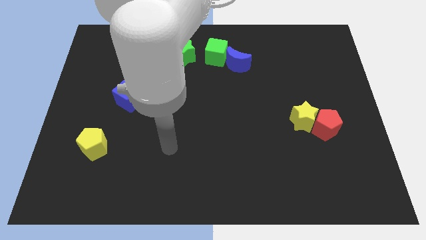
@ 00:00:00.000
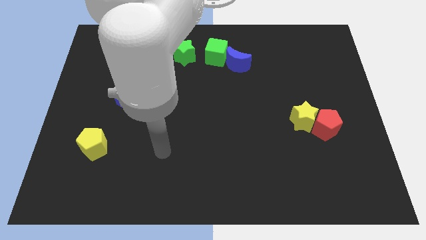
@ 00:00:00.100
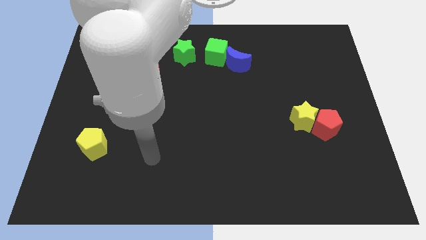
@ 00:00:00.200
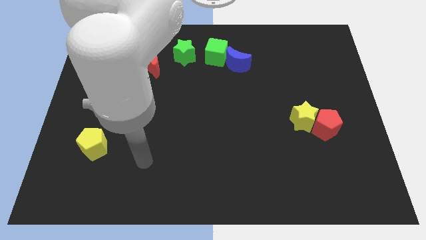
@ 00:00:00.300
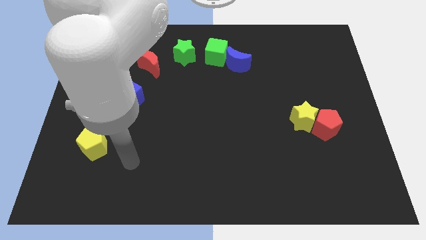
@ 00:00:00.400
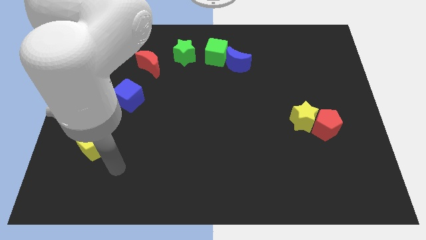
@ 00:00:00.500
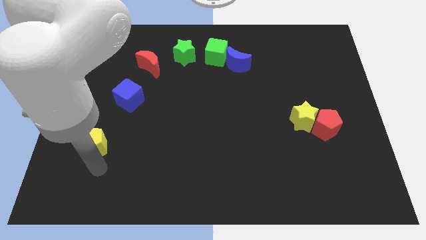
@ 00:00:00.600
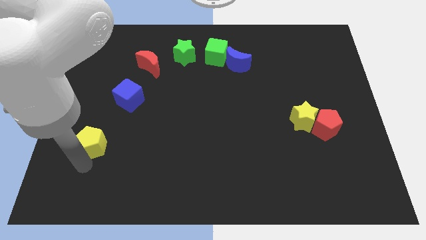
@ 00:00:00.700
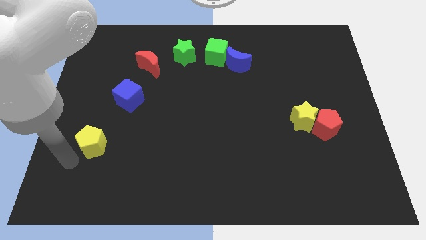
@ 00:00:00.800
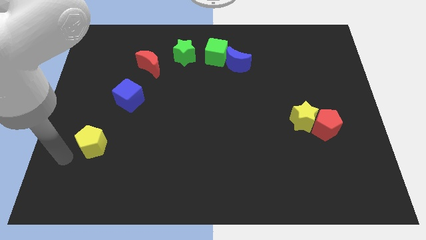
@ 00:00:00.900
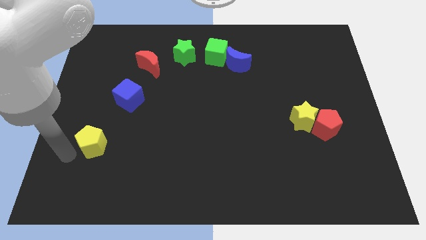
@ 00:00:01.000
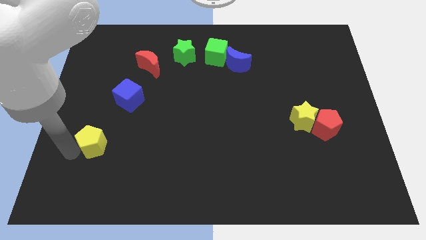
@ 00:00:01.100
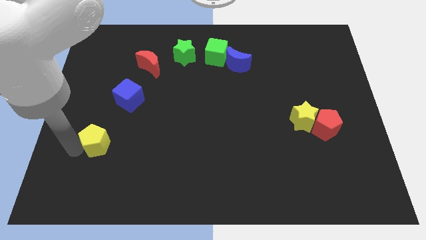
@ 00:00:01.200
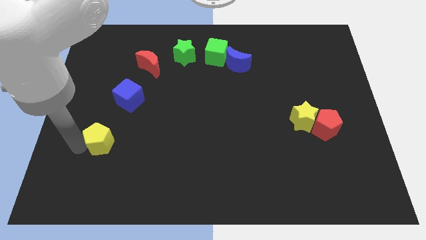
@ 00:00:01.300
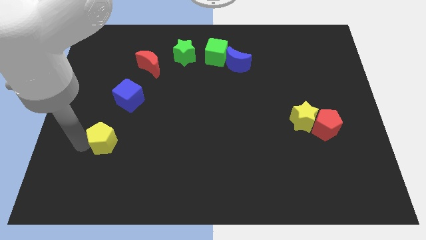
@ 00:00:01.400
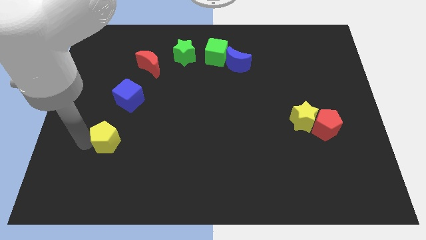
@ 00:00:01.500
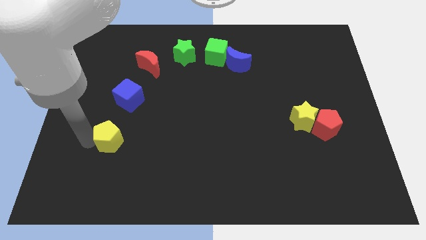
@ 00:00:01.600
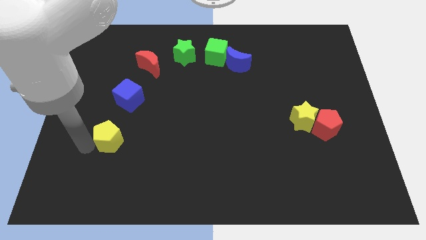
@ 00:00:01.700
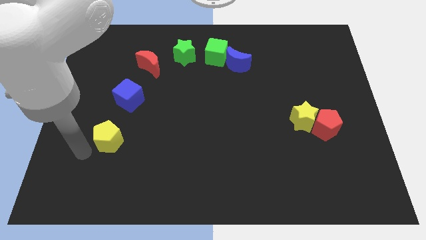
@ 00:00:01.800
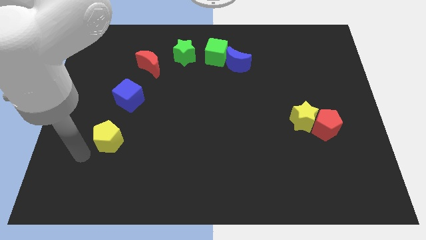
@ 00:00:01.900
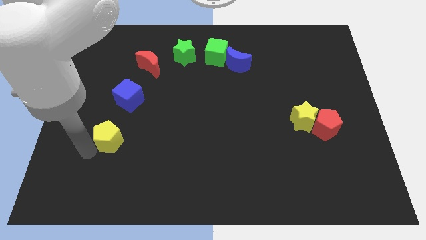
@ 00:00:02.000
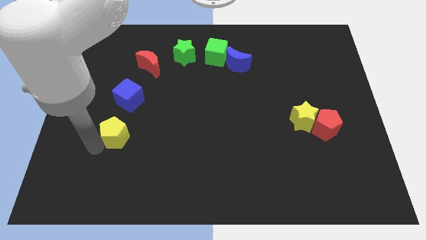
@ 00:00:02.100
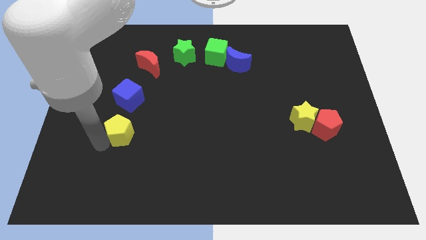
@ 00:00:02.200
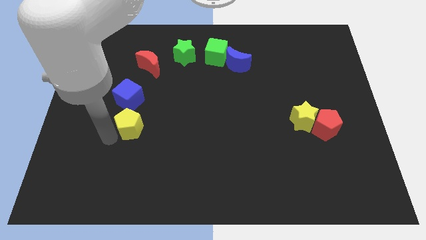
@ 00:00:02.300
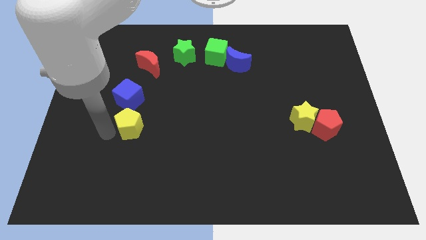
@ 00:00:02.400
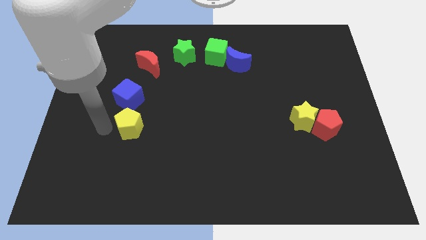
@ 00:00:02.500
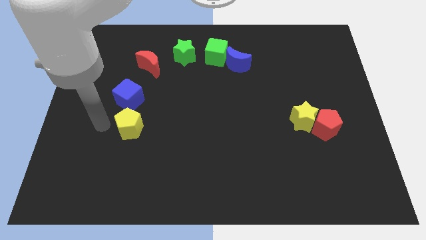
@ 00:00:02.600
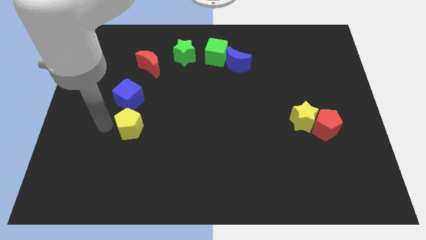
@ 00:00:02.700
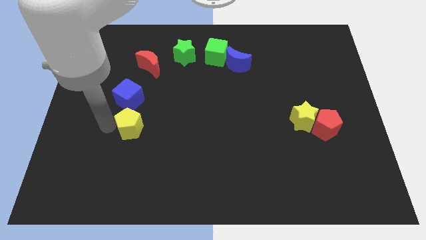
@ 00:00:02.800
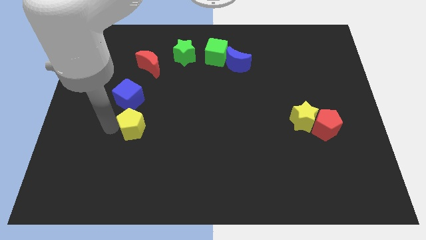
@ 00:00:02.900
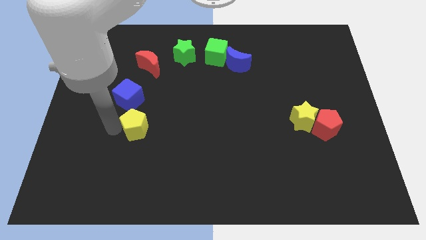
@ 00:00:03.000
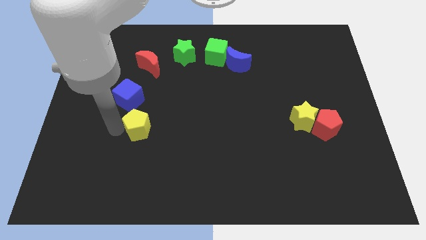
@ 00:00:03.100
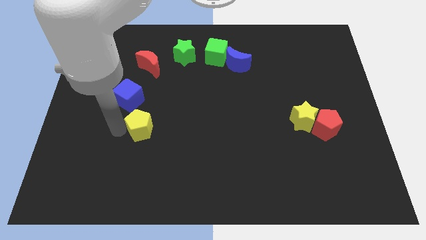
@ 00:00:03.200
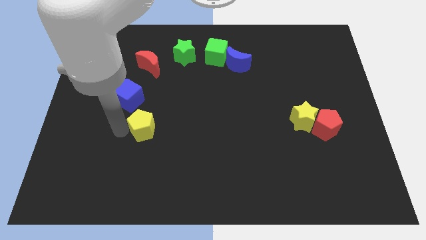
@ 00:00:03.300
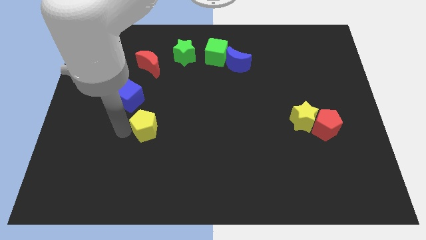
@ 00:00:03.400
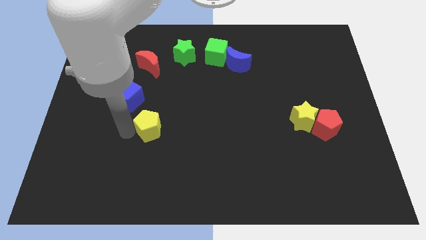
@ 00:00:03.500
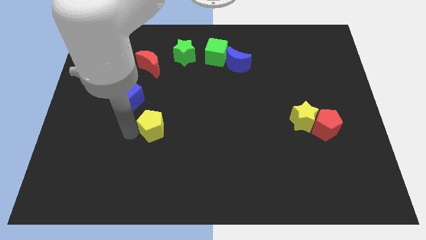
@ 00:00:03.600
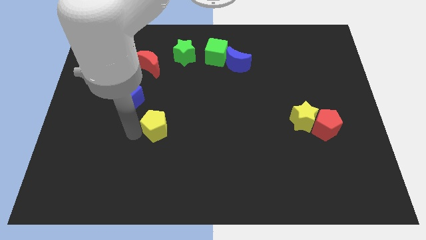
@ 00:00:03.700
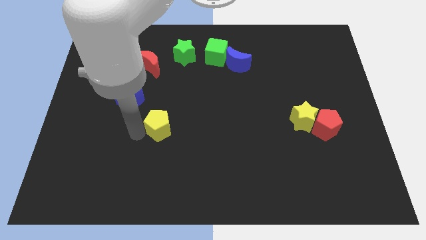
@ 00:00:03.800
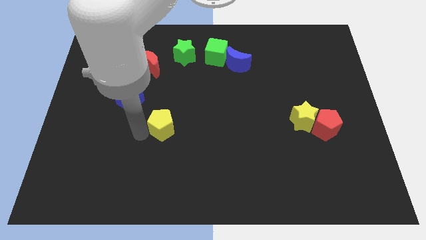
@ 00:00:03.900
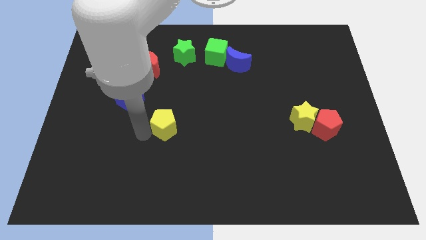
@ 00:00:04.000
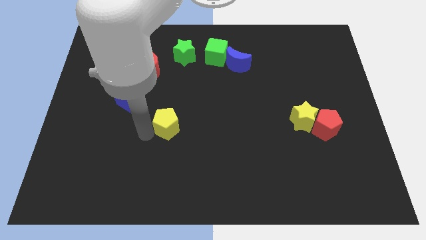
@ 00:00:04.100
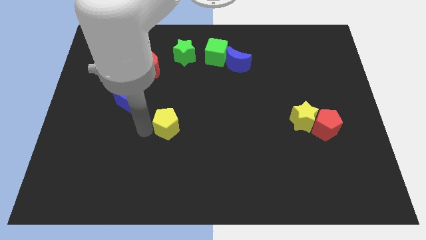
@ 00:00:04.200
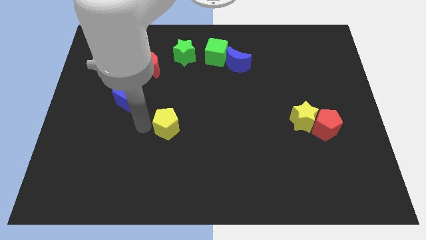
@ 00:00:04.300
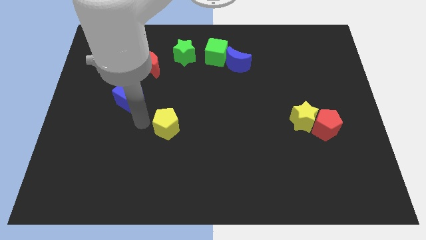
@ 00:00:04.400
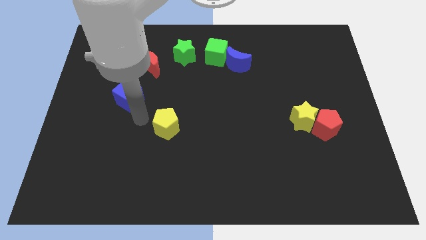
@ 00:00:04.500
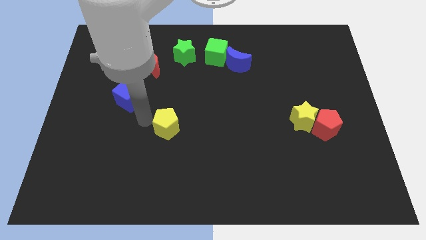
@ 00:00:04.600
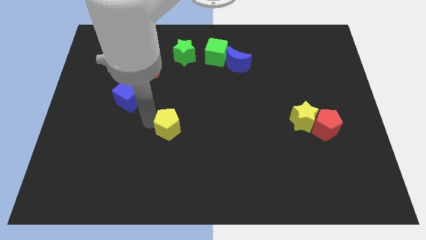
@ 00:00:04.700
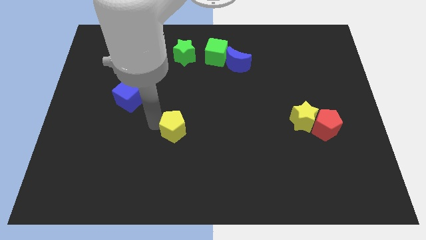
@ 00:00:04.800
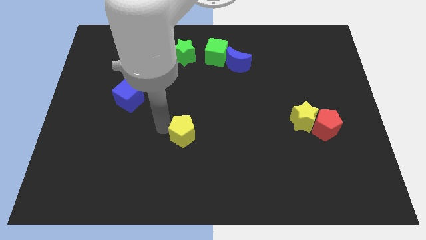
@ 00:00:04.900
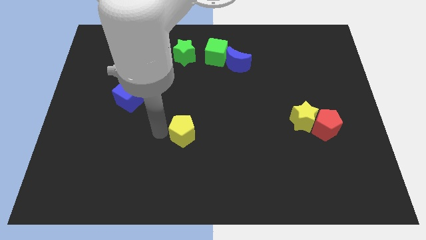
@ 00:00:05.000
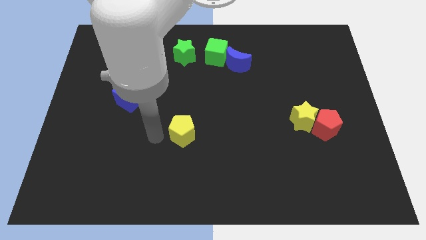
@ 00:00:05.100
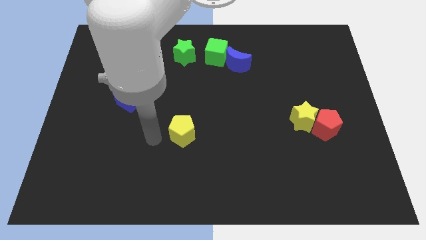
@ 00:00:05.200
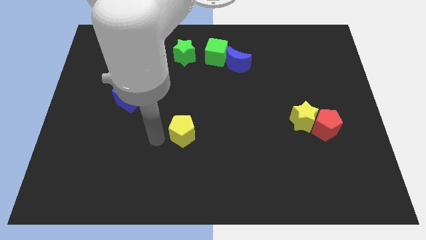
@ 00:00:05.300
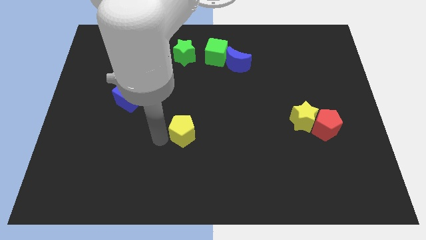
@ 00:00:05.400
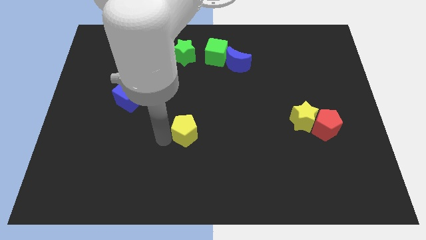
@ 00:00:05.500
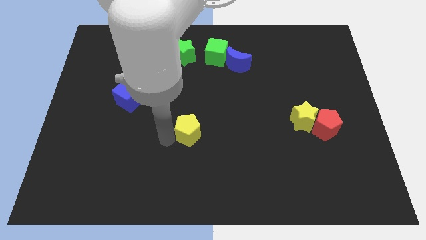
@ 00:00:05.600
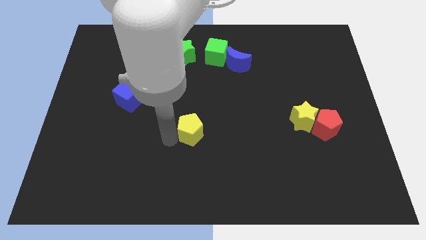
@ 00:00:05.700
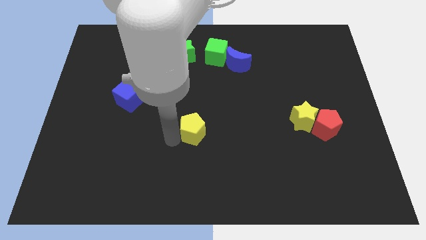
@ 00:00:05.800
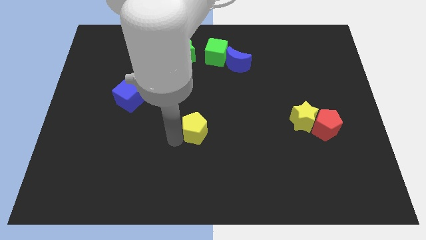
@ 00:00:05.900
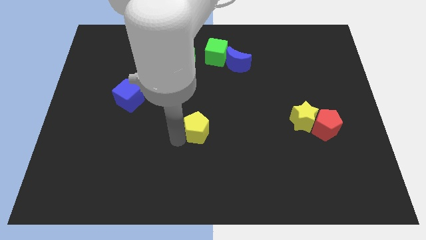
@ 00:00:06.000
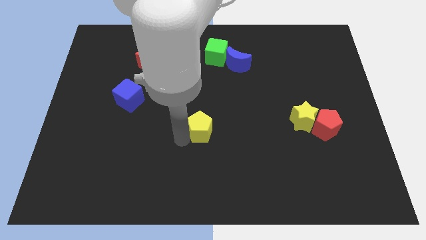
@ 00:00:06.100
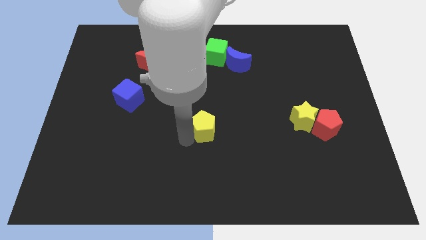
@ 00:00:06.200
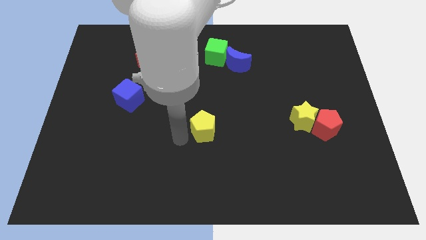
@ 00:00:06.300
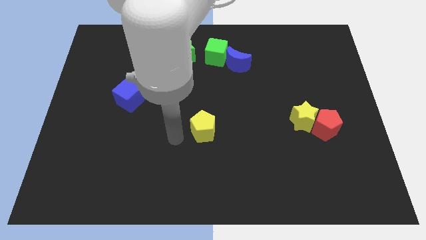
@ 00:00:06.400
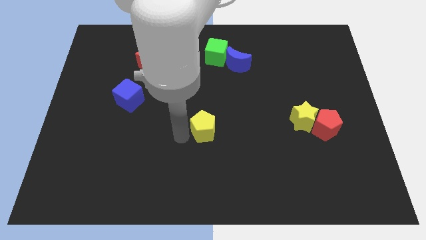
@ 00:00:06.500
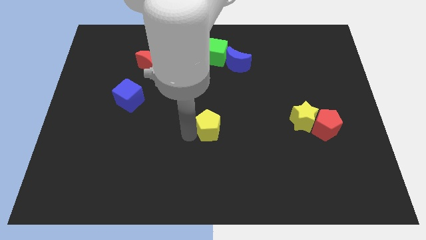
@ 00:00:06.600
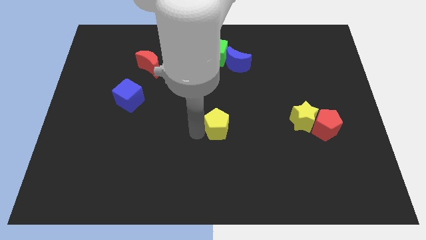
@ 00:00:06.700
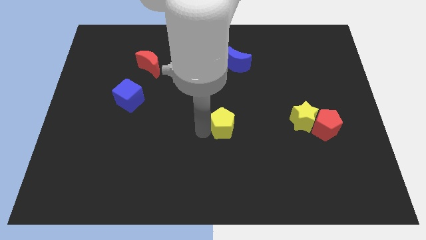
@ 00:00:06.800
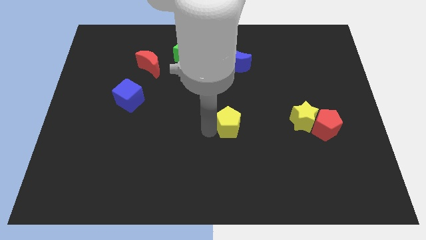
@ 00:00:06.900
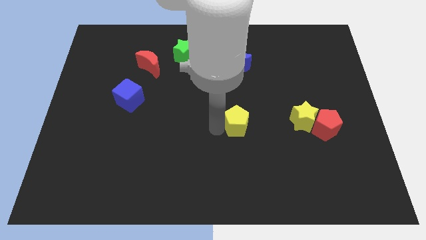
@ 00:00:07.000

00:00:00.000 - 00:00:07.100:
push the yellow pentagon to the left side of the yellow star
